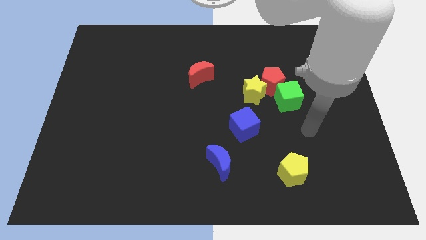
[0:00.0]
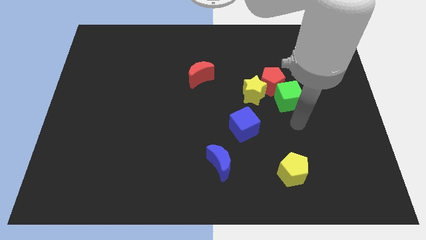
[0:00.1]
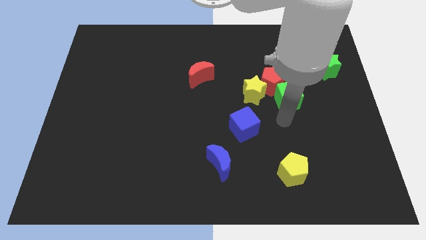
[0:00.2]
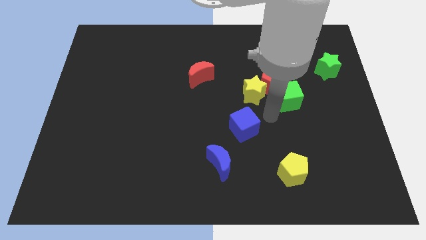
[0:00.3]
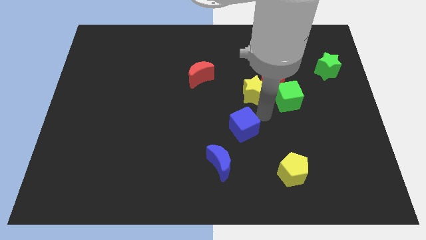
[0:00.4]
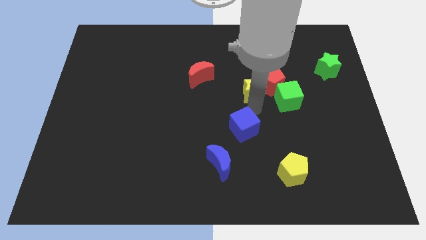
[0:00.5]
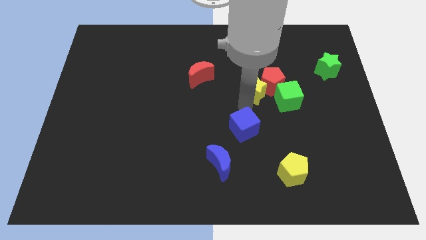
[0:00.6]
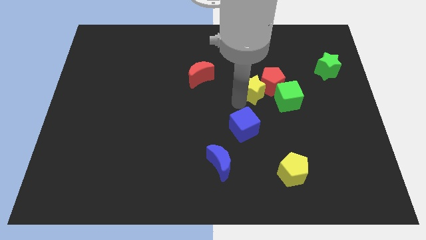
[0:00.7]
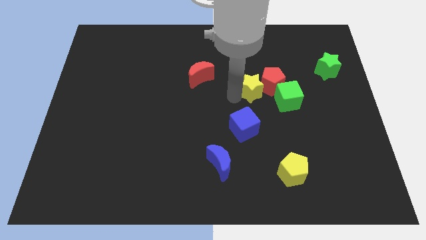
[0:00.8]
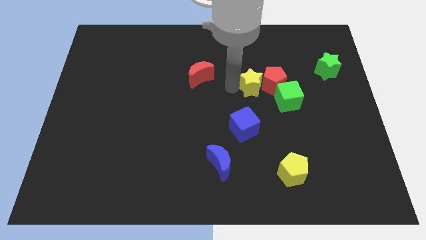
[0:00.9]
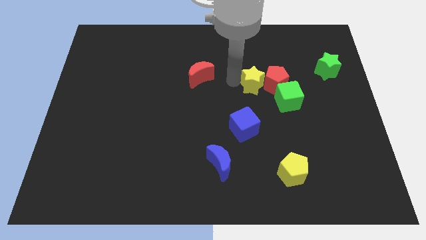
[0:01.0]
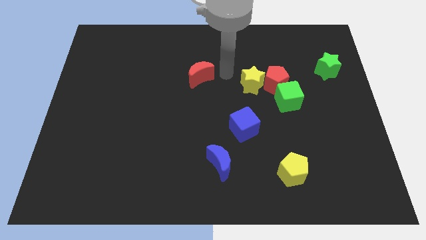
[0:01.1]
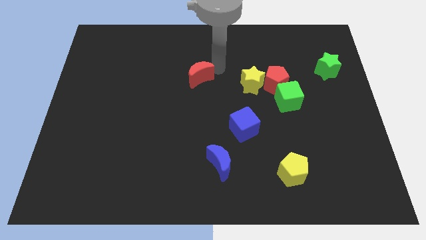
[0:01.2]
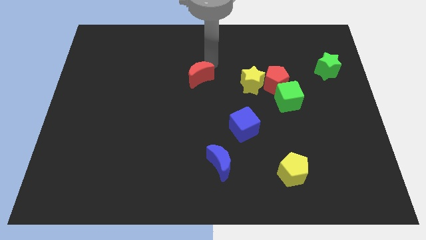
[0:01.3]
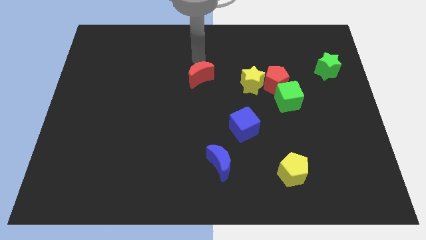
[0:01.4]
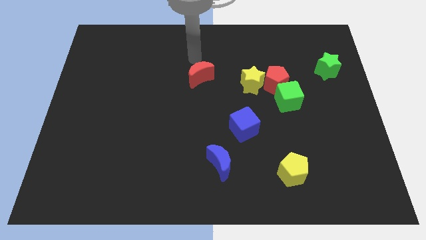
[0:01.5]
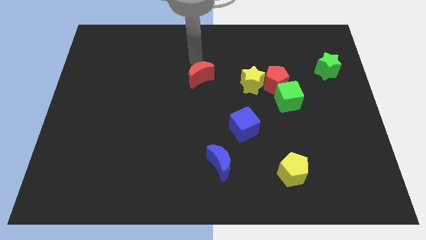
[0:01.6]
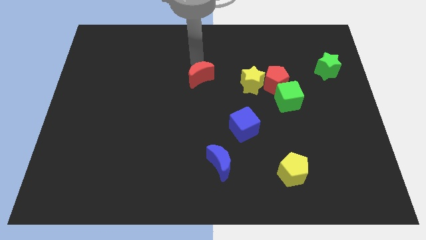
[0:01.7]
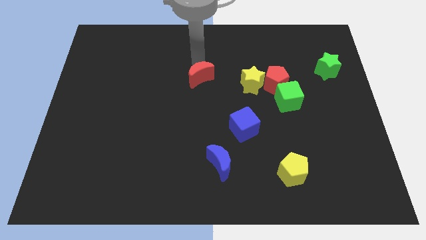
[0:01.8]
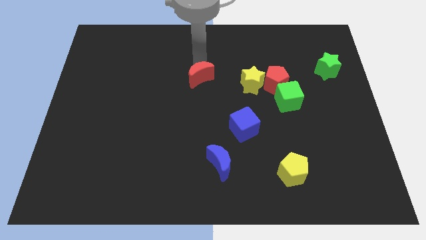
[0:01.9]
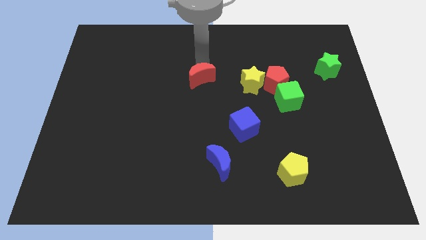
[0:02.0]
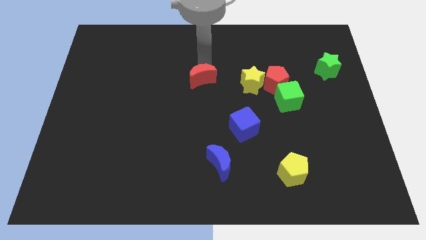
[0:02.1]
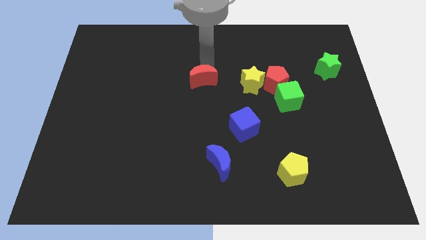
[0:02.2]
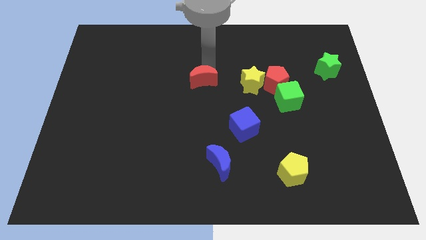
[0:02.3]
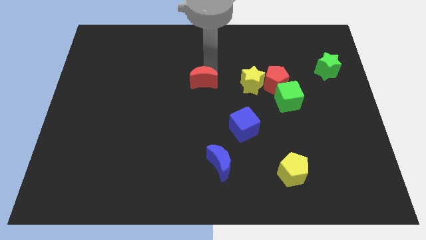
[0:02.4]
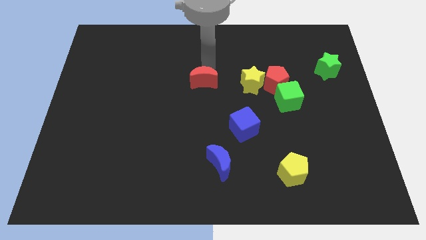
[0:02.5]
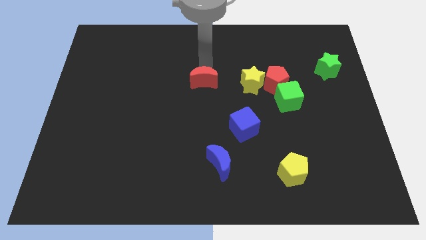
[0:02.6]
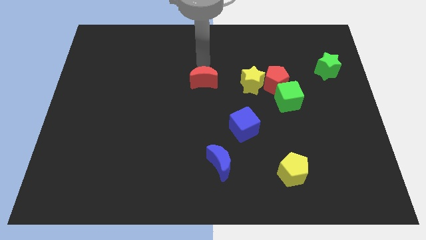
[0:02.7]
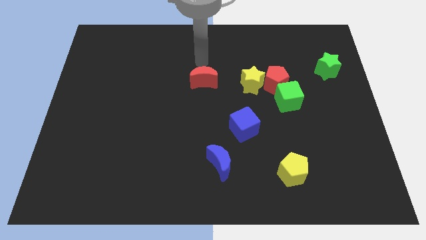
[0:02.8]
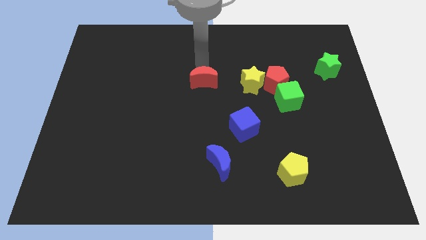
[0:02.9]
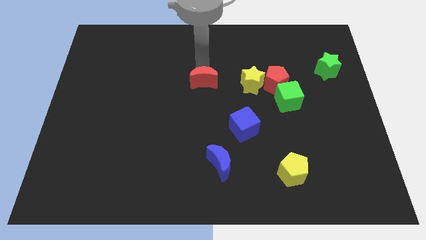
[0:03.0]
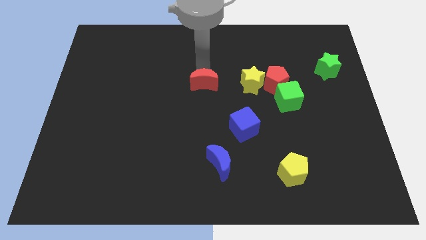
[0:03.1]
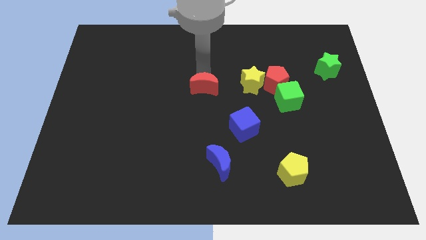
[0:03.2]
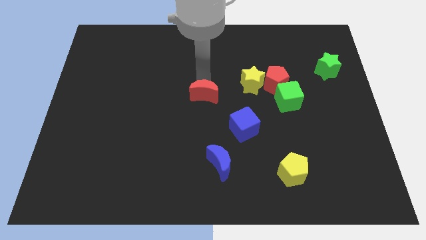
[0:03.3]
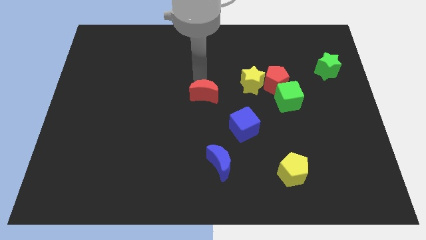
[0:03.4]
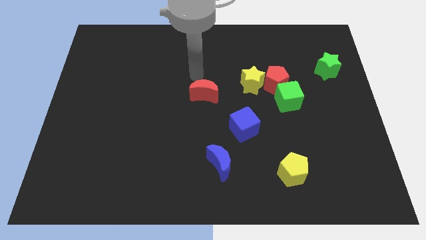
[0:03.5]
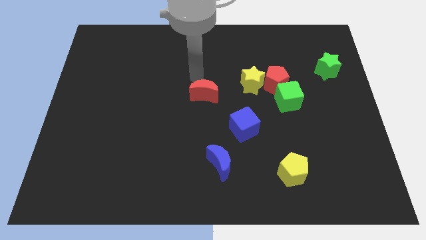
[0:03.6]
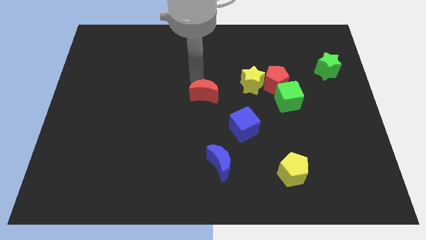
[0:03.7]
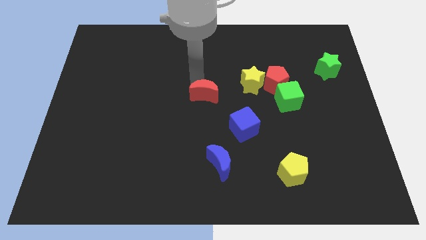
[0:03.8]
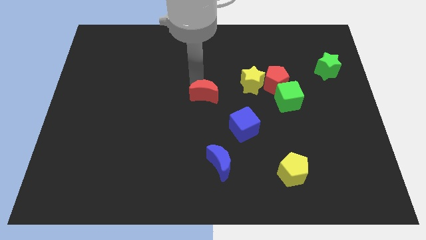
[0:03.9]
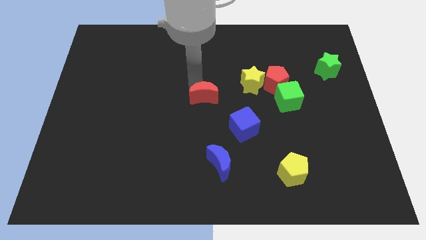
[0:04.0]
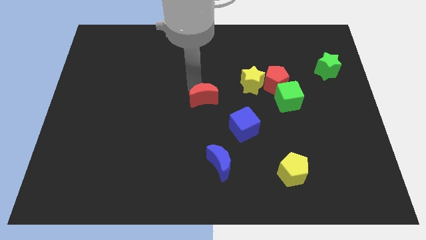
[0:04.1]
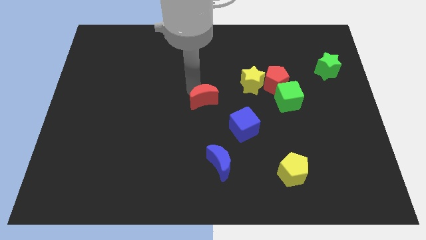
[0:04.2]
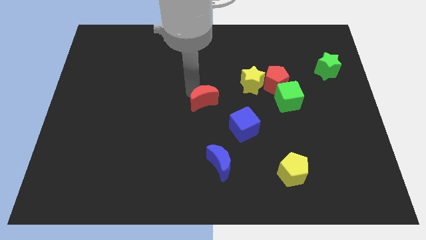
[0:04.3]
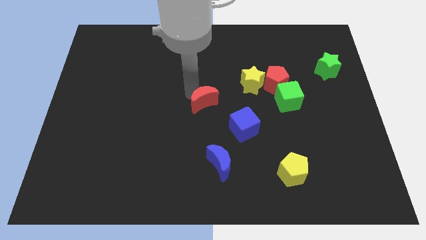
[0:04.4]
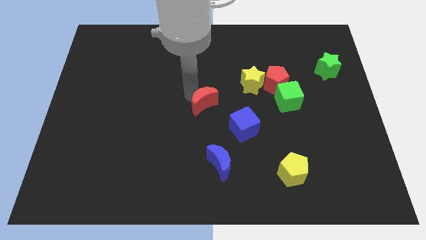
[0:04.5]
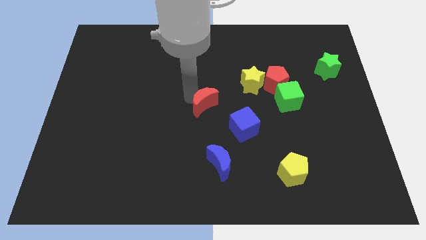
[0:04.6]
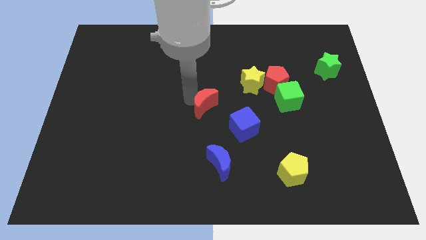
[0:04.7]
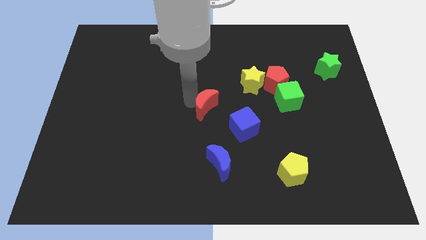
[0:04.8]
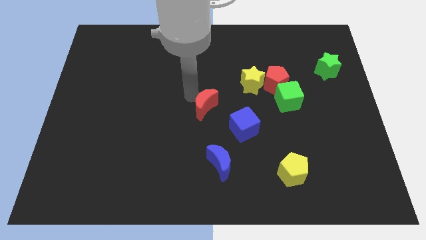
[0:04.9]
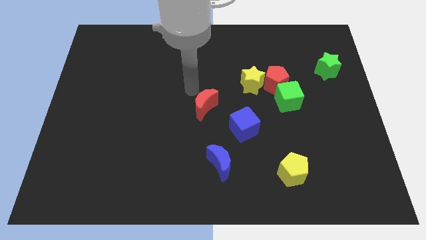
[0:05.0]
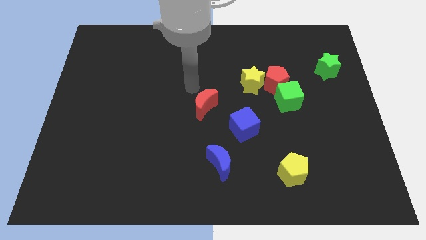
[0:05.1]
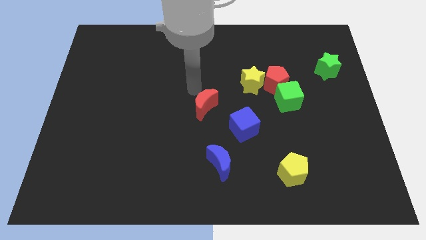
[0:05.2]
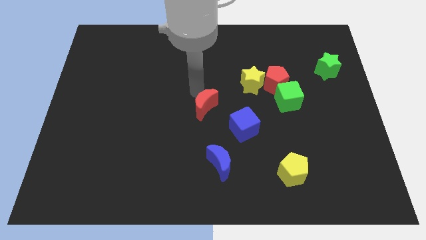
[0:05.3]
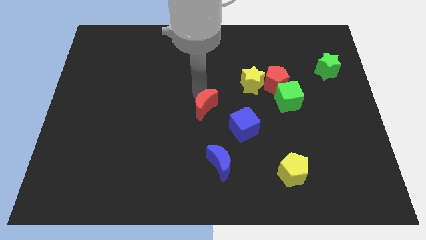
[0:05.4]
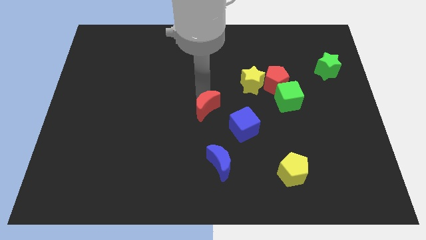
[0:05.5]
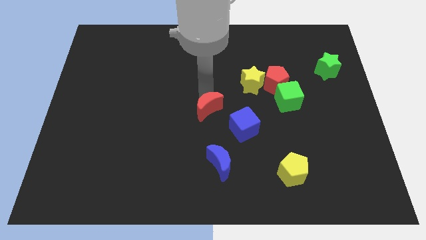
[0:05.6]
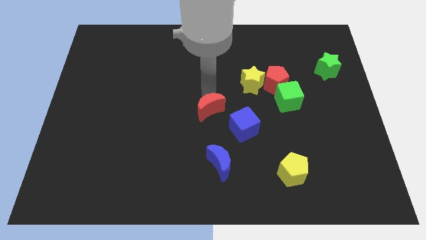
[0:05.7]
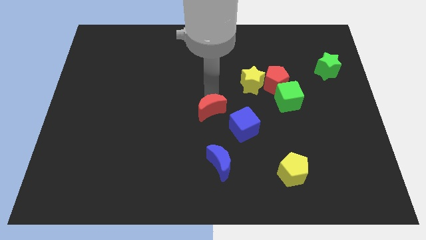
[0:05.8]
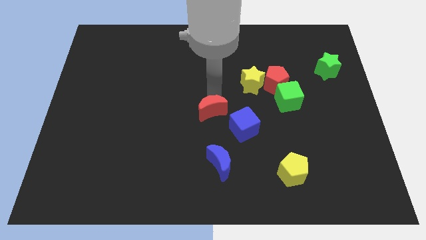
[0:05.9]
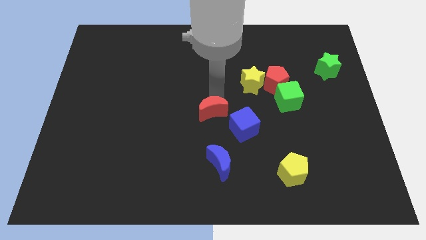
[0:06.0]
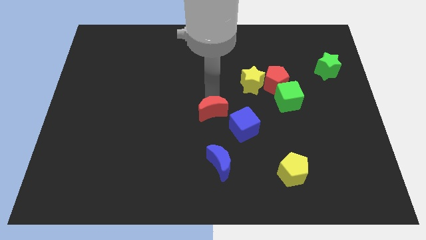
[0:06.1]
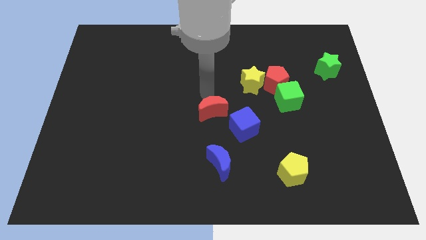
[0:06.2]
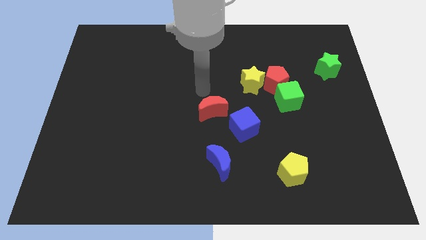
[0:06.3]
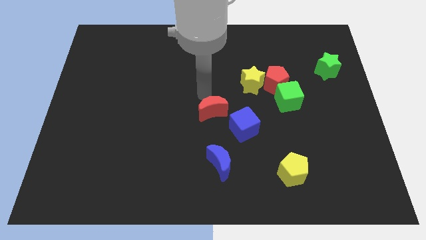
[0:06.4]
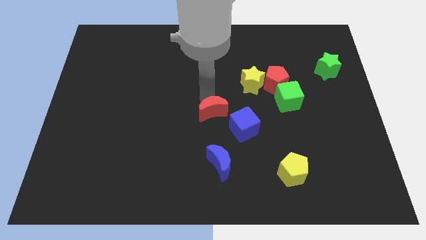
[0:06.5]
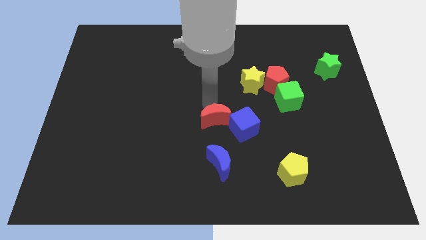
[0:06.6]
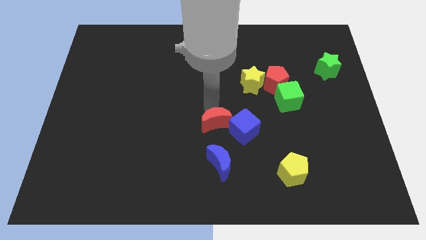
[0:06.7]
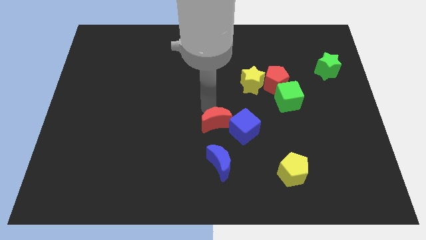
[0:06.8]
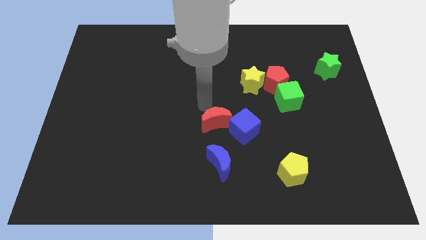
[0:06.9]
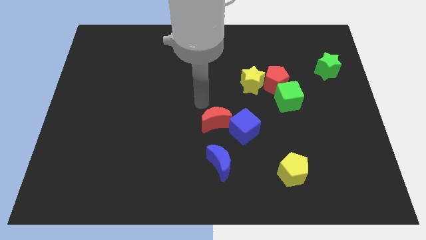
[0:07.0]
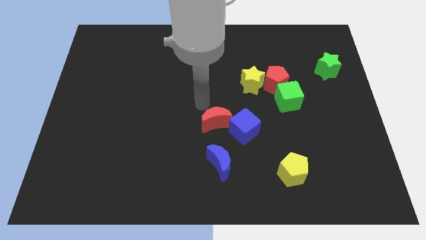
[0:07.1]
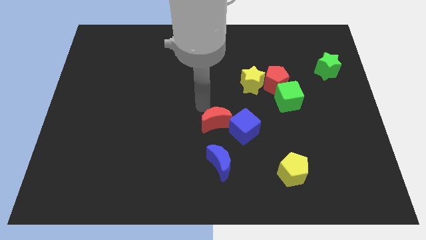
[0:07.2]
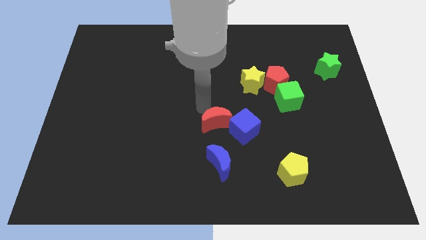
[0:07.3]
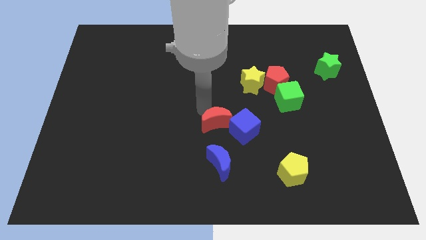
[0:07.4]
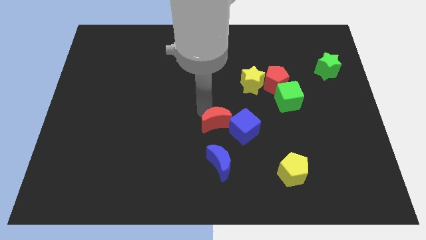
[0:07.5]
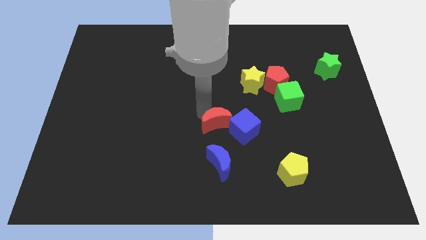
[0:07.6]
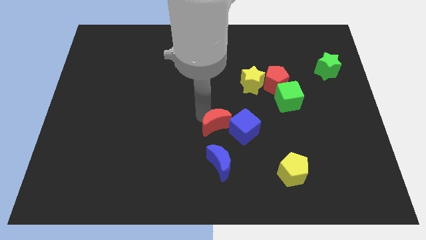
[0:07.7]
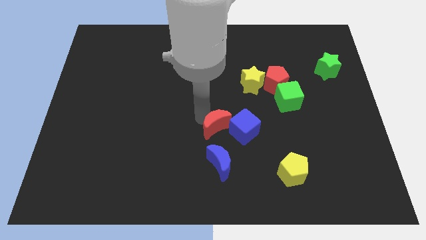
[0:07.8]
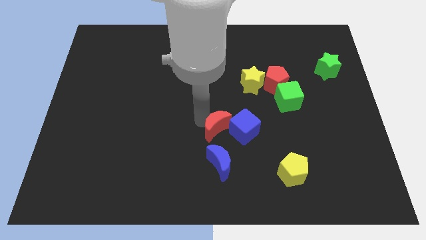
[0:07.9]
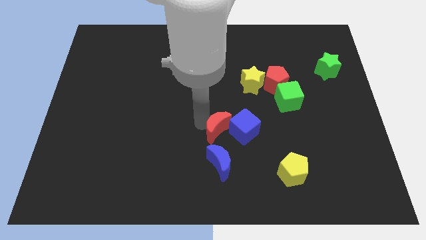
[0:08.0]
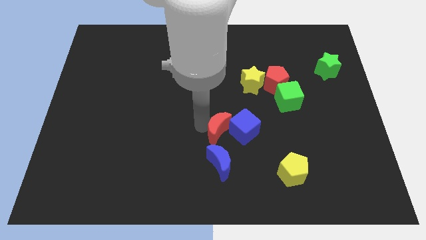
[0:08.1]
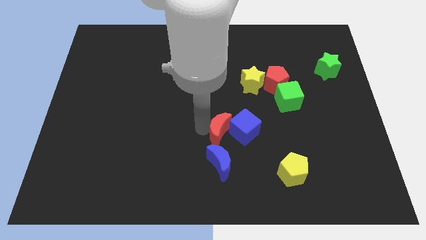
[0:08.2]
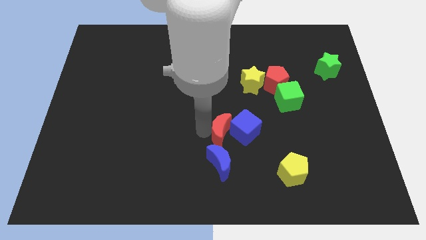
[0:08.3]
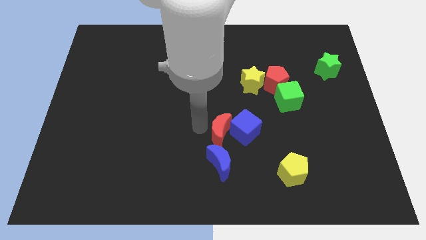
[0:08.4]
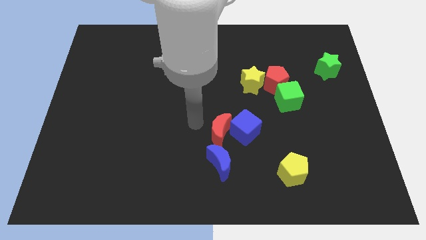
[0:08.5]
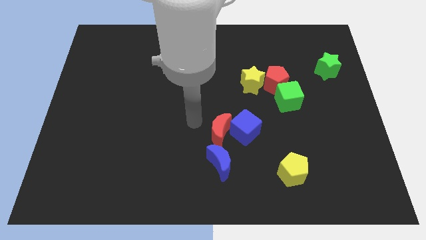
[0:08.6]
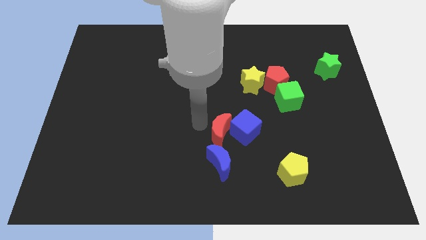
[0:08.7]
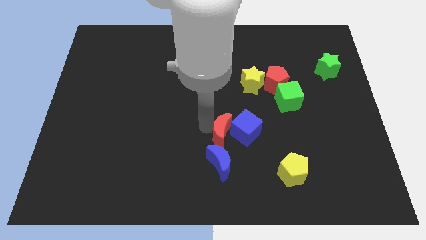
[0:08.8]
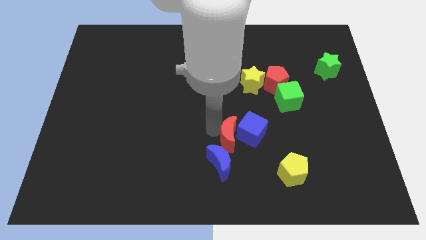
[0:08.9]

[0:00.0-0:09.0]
push the red moon diagonally up and to the right of the blue moon
